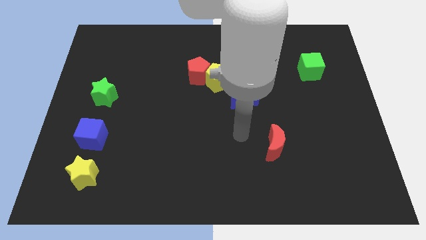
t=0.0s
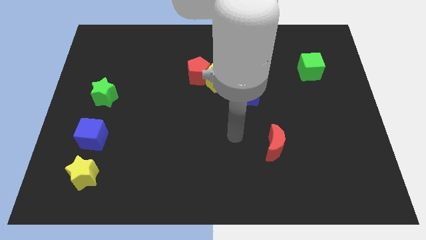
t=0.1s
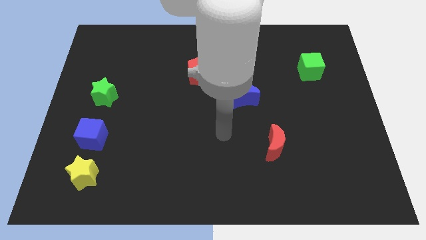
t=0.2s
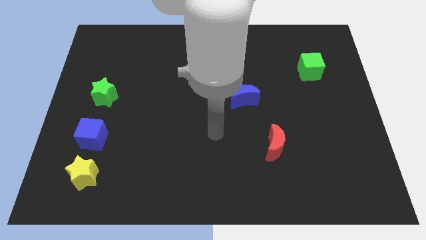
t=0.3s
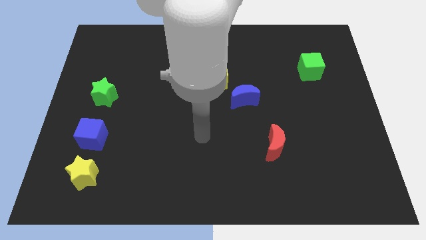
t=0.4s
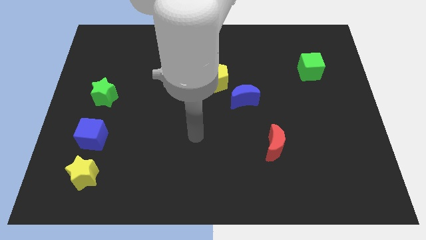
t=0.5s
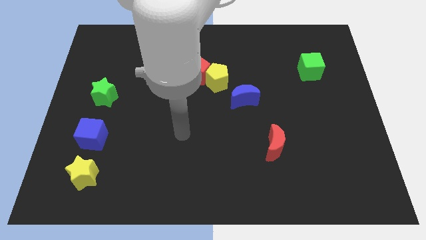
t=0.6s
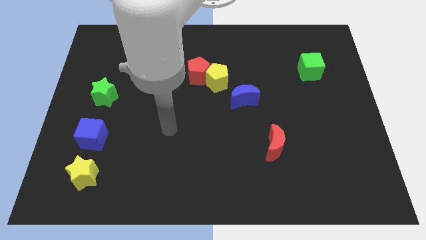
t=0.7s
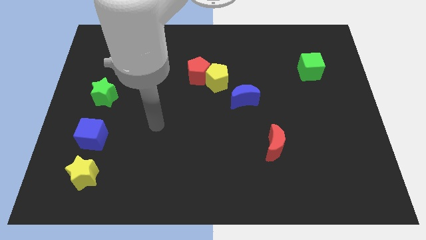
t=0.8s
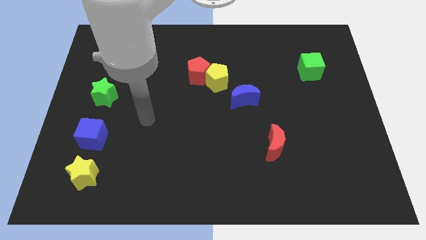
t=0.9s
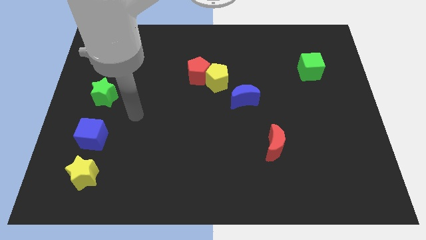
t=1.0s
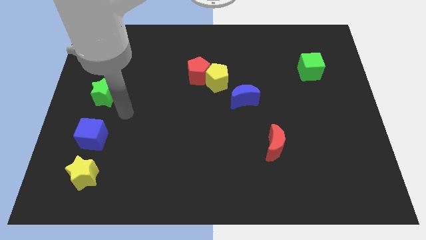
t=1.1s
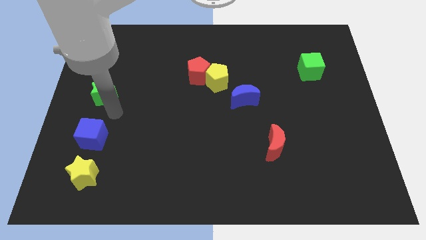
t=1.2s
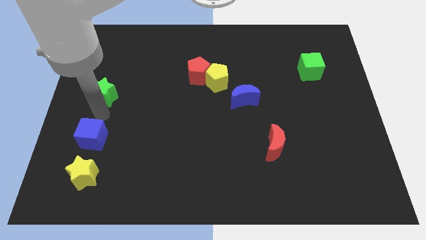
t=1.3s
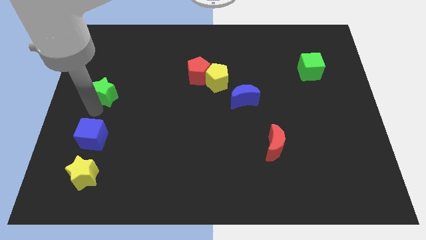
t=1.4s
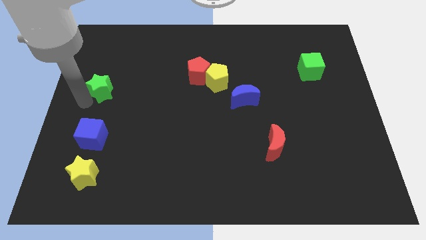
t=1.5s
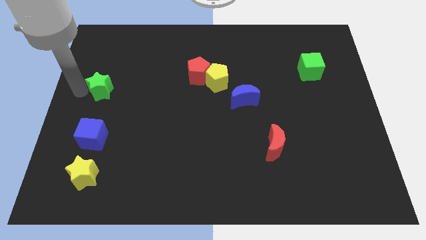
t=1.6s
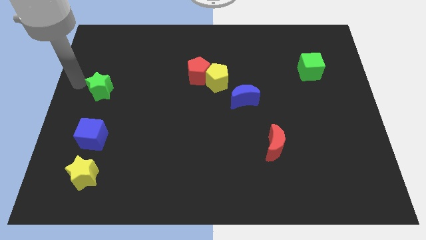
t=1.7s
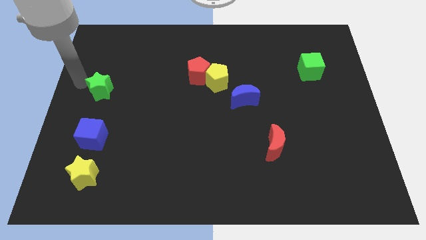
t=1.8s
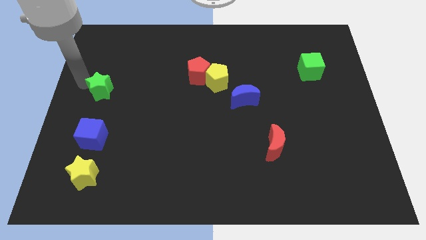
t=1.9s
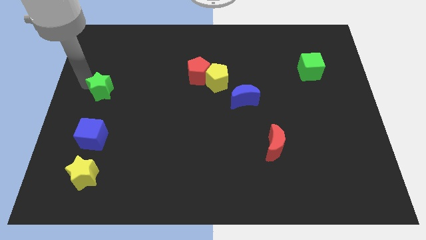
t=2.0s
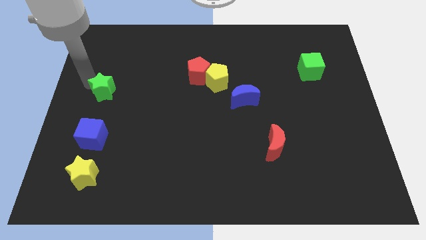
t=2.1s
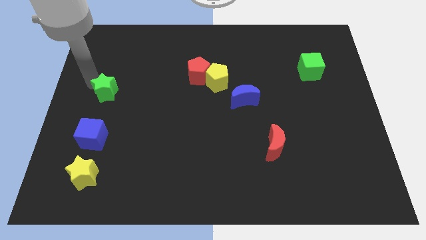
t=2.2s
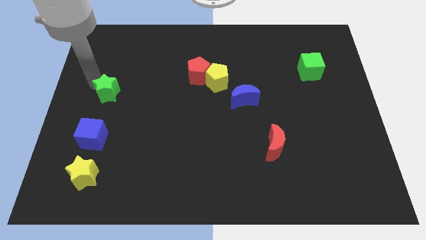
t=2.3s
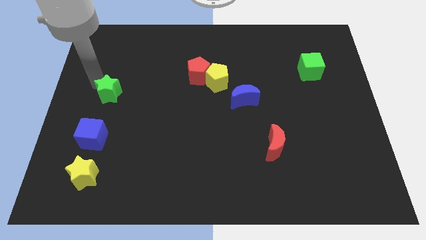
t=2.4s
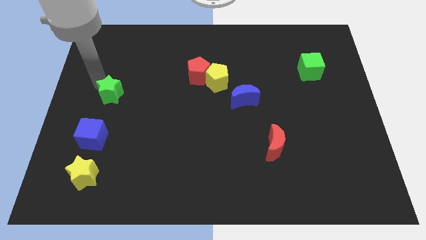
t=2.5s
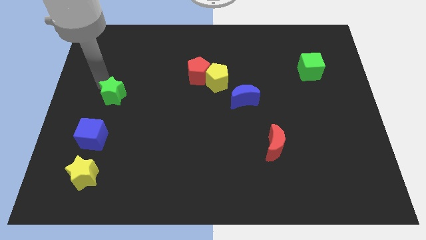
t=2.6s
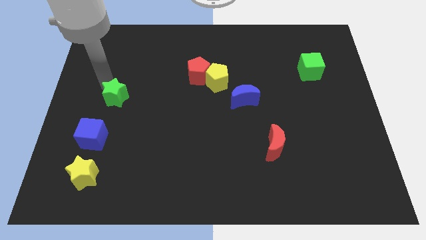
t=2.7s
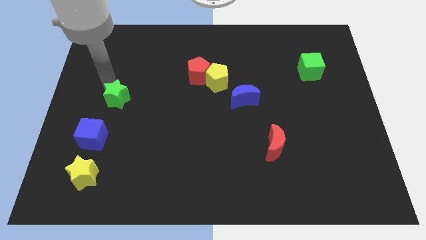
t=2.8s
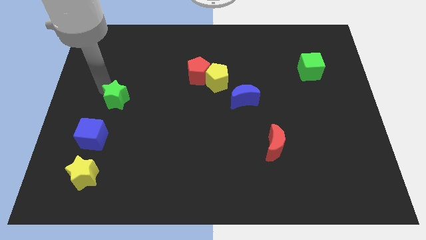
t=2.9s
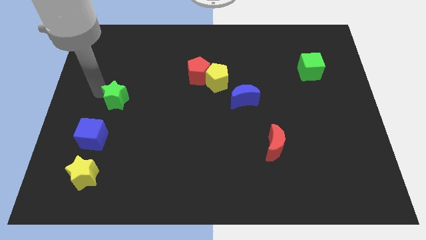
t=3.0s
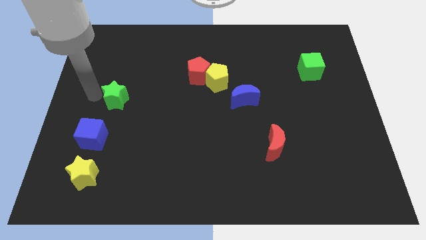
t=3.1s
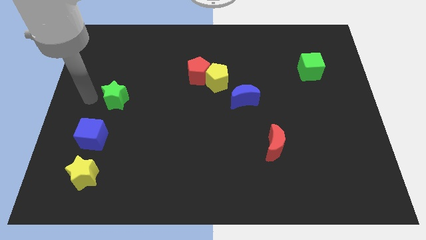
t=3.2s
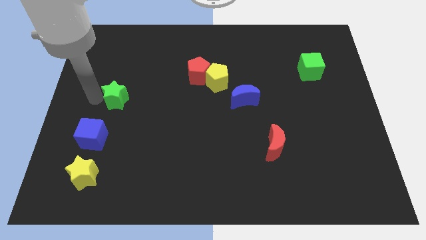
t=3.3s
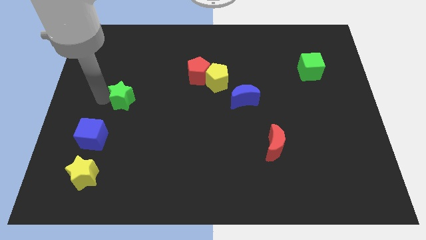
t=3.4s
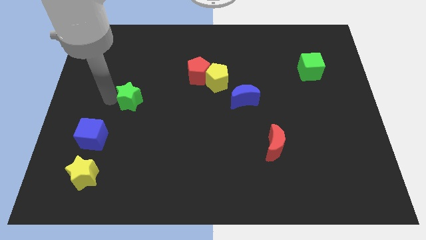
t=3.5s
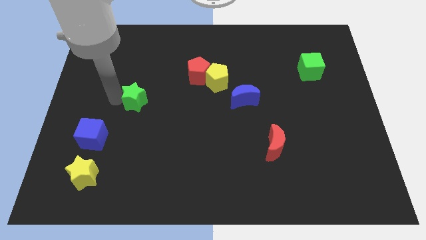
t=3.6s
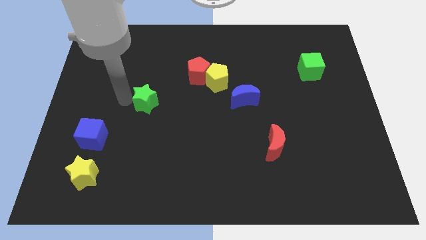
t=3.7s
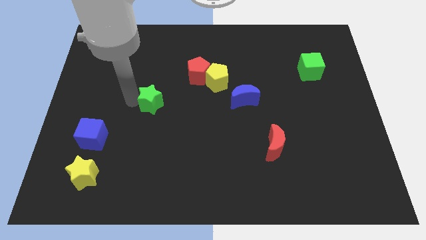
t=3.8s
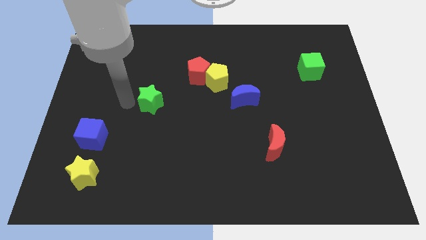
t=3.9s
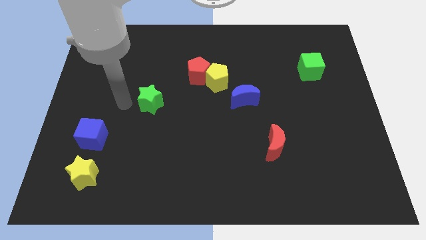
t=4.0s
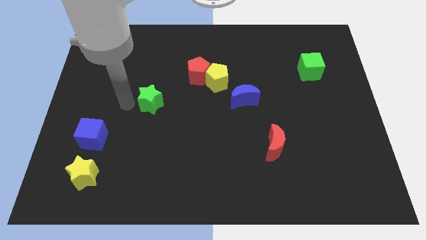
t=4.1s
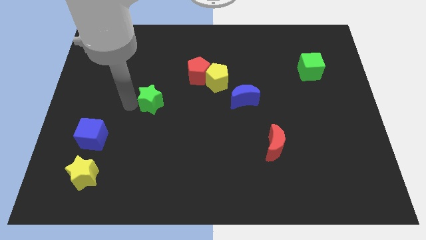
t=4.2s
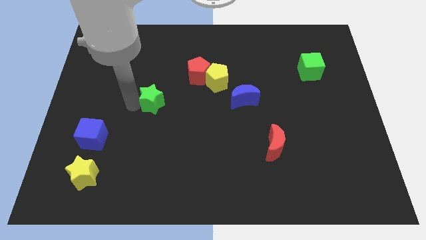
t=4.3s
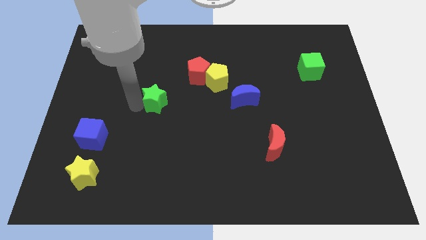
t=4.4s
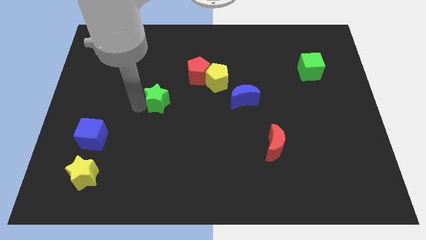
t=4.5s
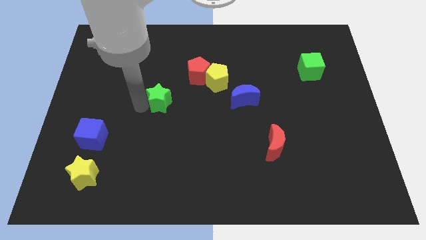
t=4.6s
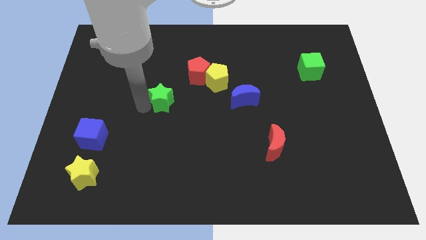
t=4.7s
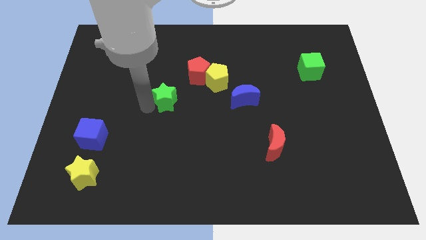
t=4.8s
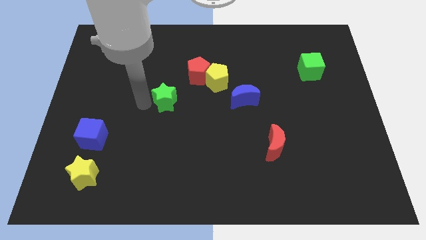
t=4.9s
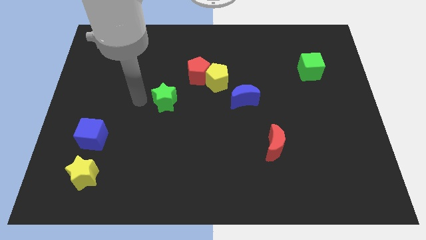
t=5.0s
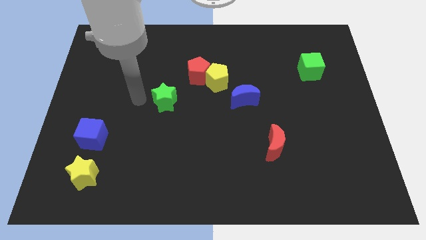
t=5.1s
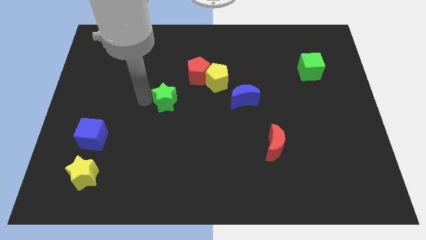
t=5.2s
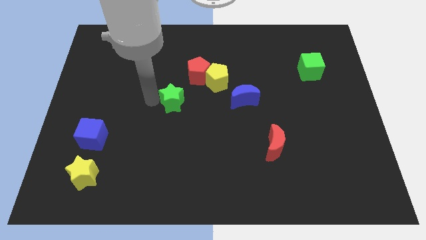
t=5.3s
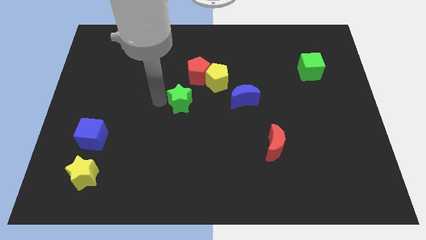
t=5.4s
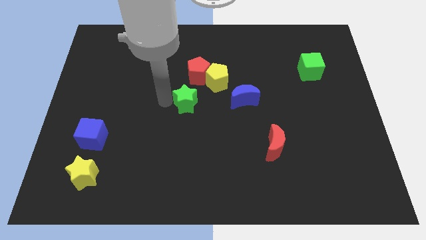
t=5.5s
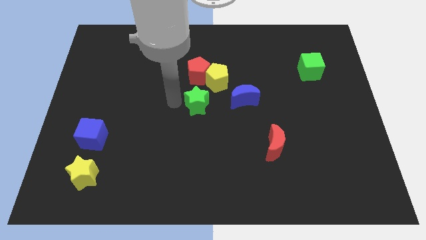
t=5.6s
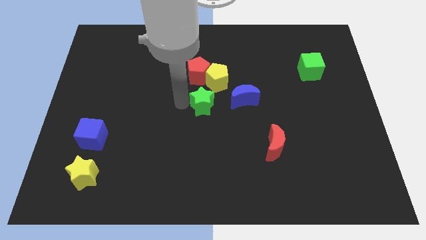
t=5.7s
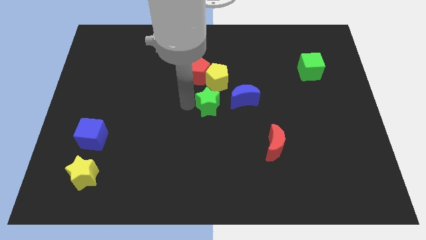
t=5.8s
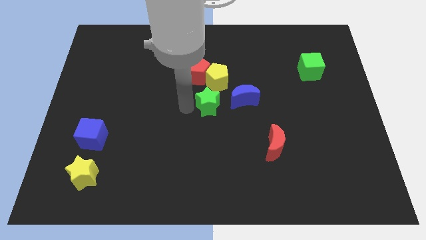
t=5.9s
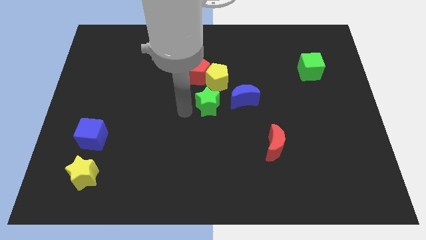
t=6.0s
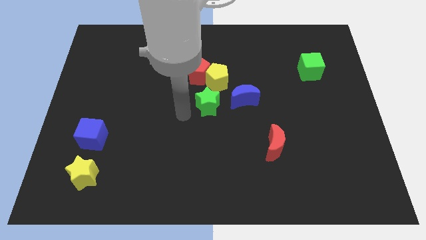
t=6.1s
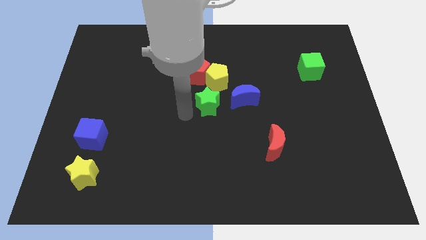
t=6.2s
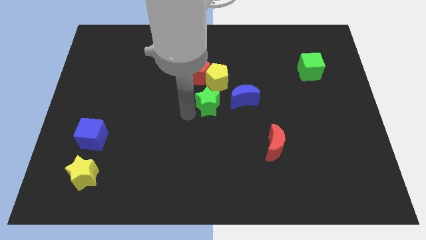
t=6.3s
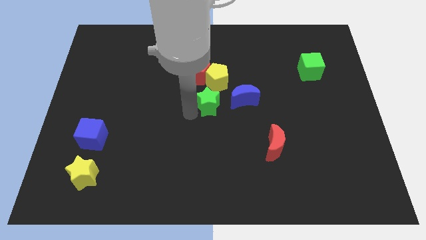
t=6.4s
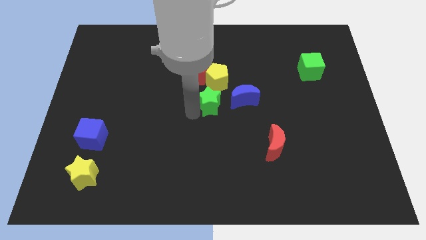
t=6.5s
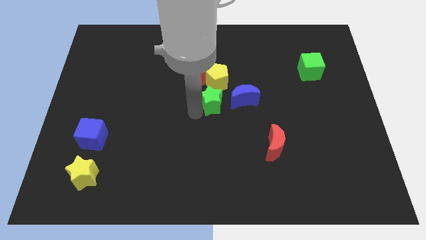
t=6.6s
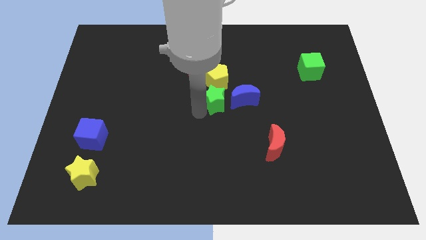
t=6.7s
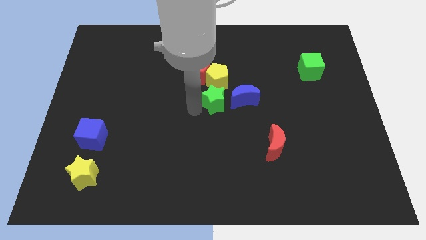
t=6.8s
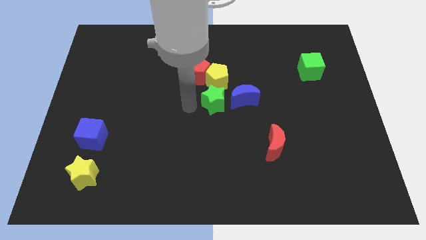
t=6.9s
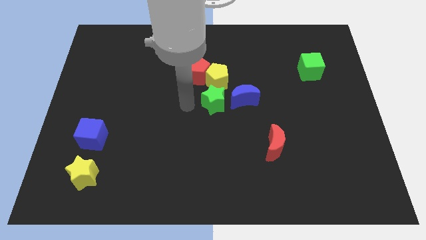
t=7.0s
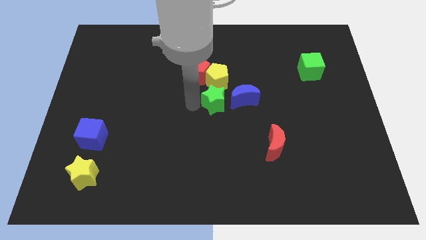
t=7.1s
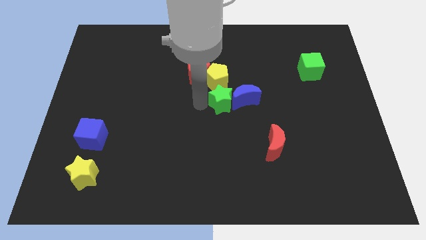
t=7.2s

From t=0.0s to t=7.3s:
put the green star to the blue moon
